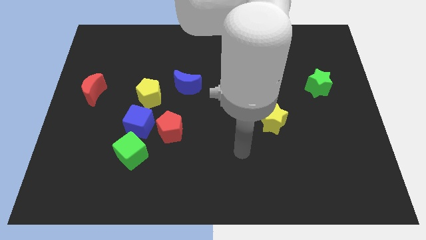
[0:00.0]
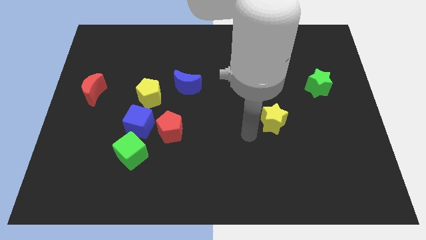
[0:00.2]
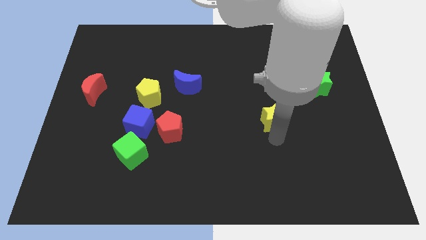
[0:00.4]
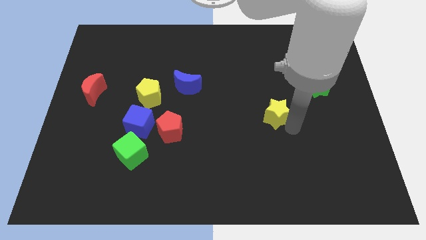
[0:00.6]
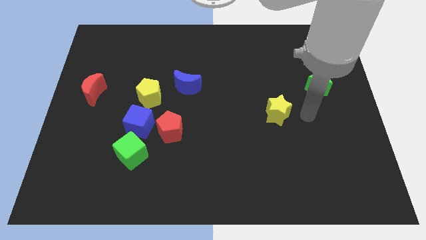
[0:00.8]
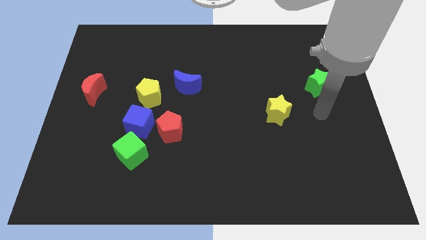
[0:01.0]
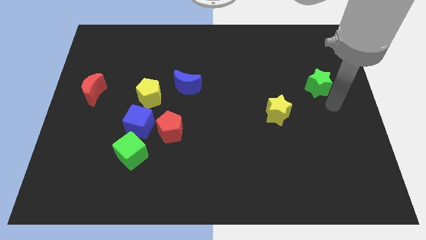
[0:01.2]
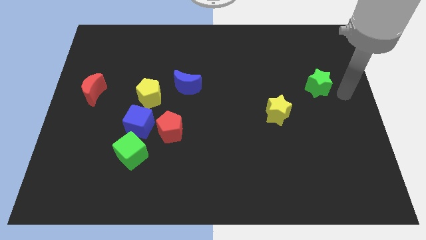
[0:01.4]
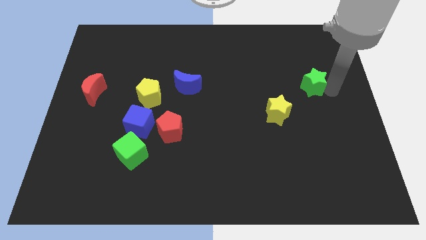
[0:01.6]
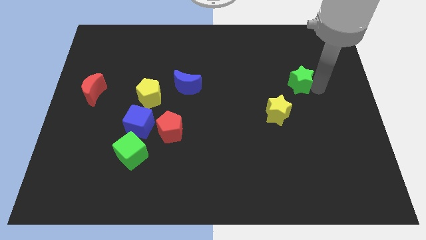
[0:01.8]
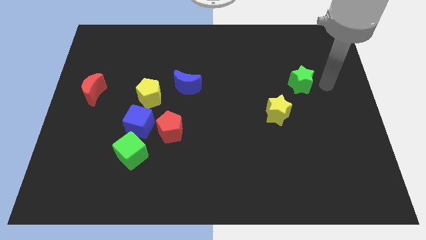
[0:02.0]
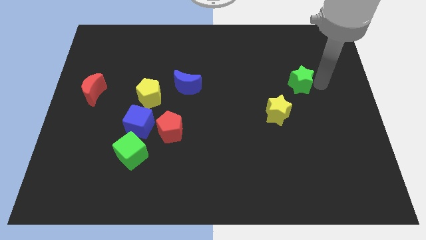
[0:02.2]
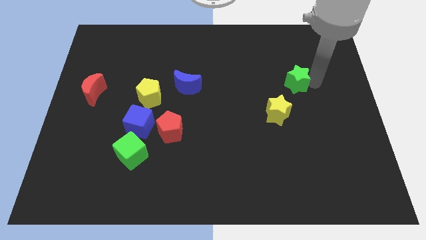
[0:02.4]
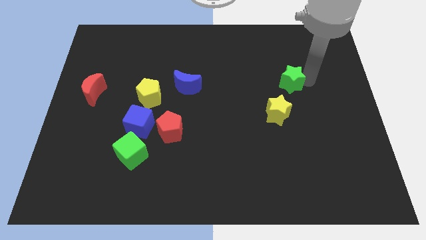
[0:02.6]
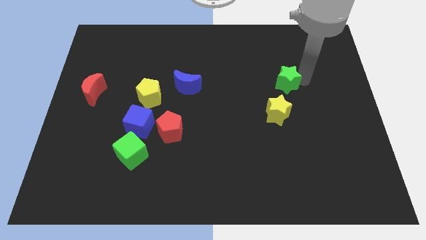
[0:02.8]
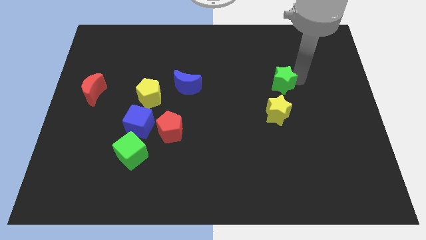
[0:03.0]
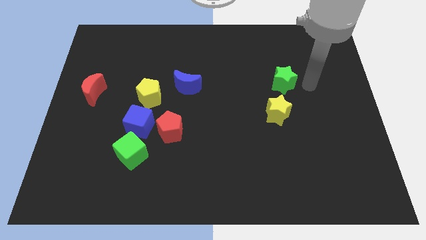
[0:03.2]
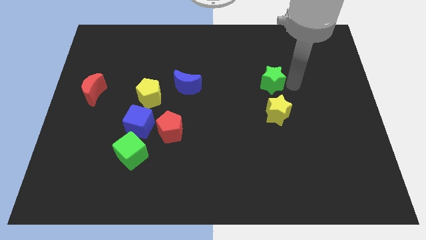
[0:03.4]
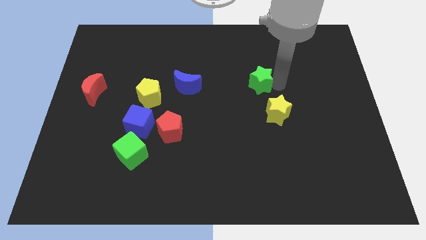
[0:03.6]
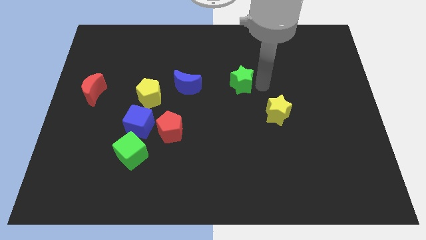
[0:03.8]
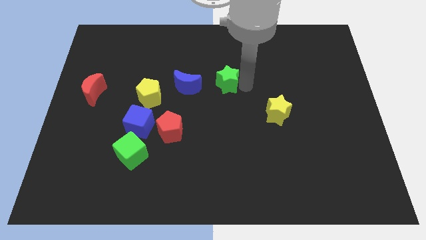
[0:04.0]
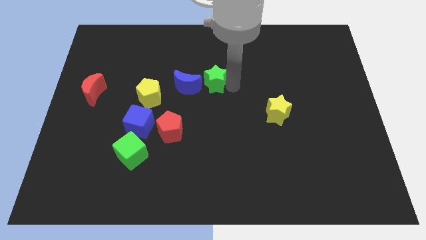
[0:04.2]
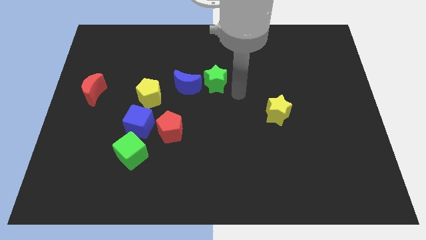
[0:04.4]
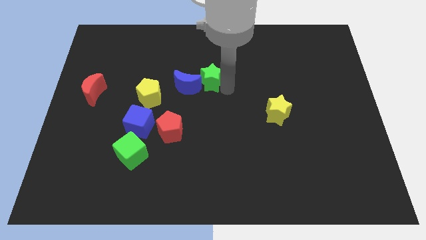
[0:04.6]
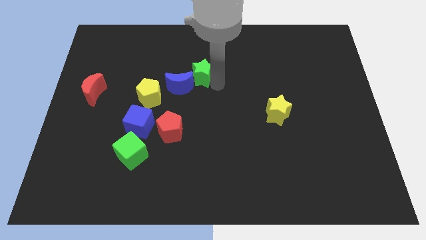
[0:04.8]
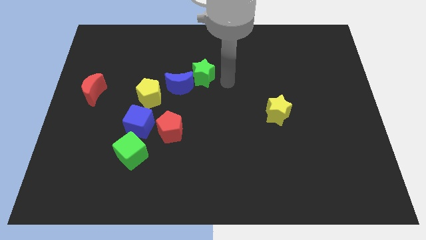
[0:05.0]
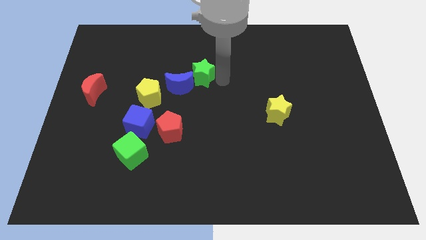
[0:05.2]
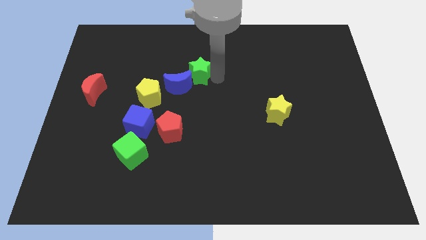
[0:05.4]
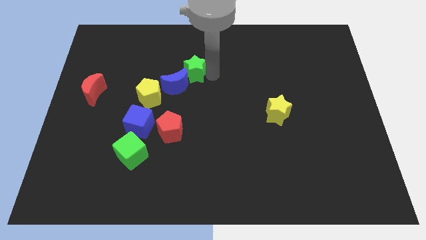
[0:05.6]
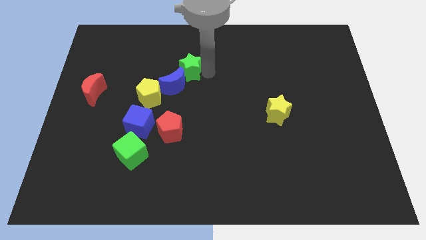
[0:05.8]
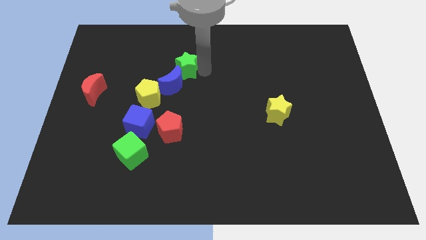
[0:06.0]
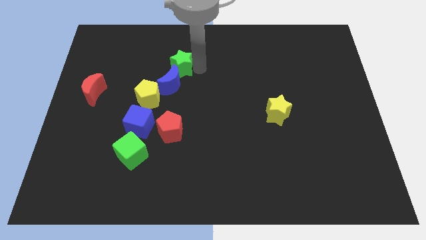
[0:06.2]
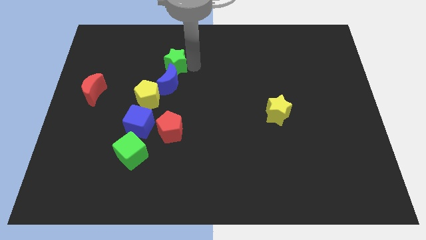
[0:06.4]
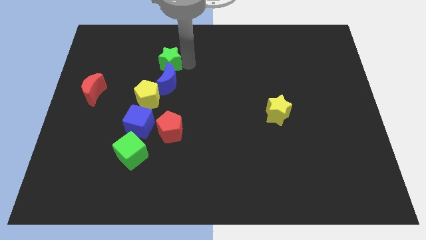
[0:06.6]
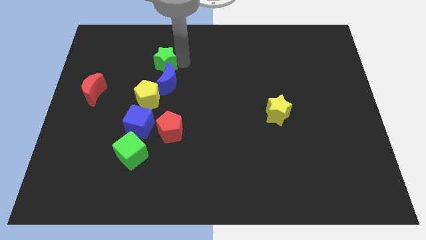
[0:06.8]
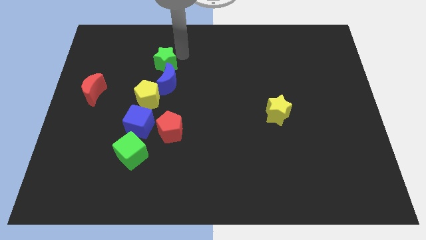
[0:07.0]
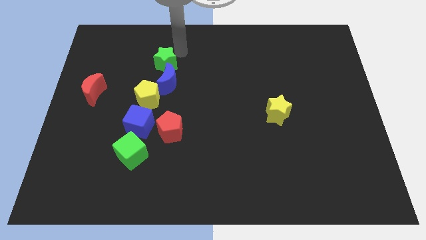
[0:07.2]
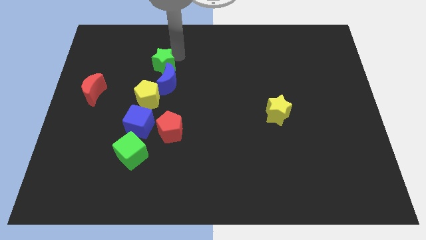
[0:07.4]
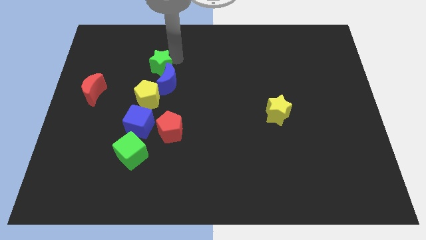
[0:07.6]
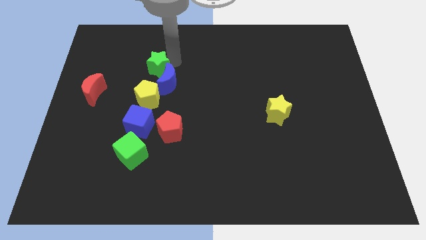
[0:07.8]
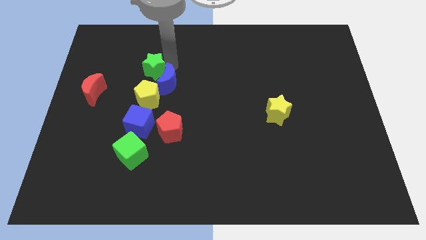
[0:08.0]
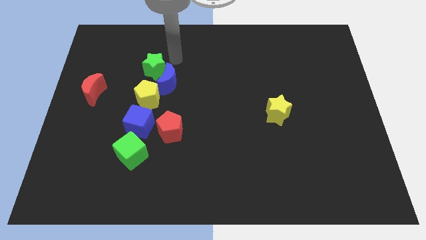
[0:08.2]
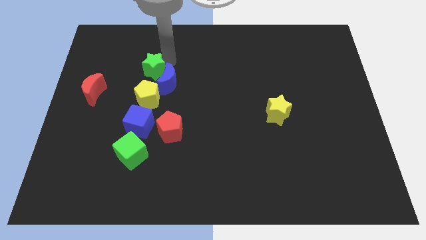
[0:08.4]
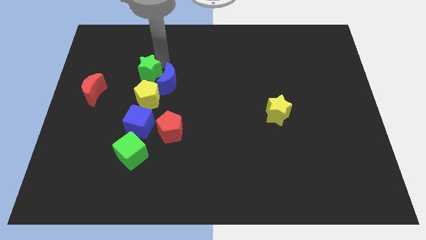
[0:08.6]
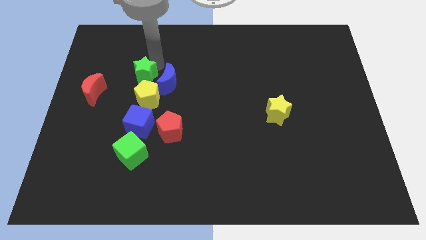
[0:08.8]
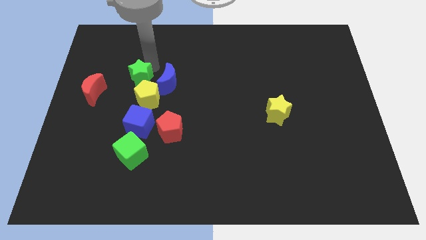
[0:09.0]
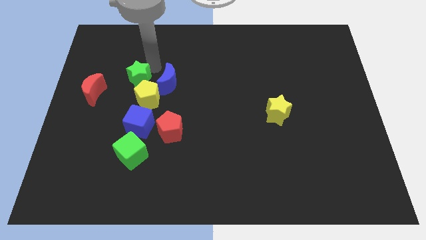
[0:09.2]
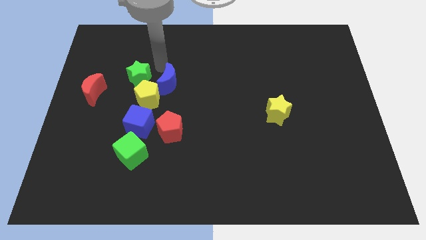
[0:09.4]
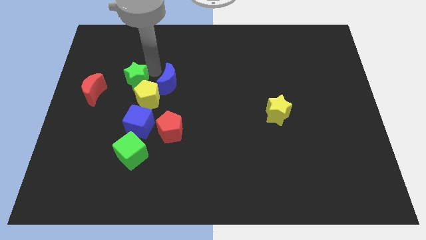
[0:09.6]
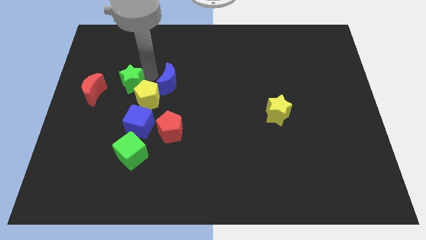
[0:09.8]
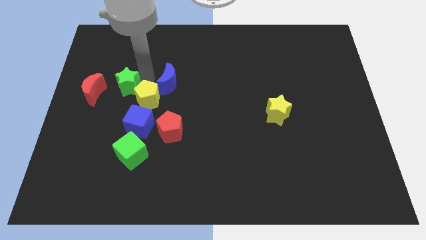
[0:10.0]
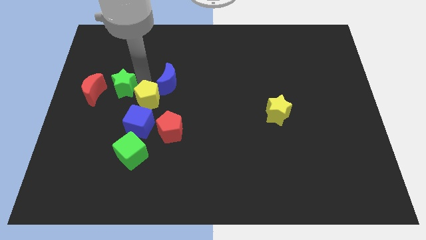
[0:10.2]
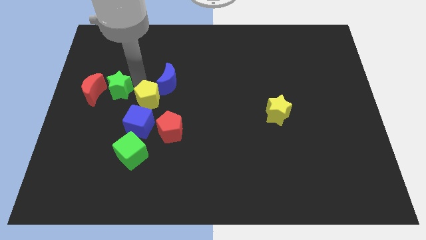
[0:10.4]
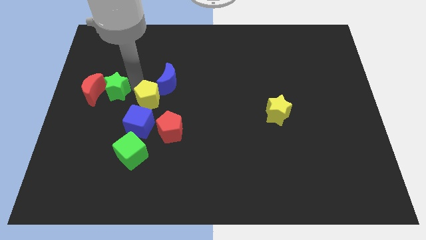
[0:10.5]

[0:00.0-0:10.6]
push the green star next to the red moon

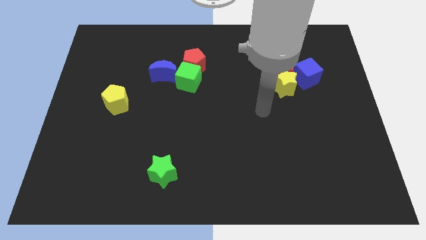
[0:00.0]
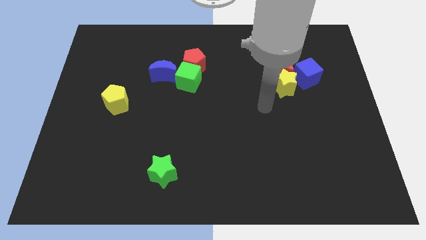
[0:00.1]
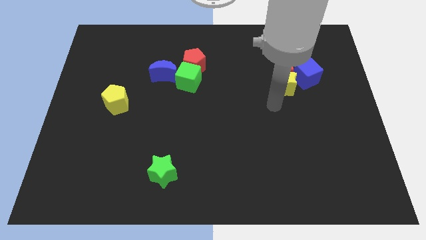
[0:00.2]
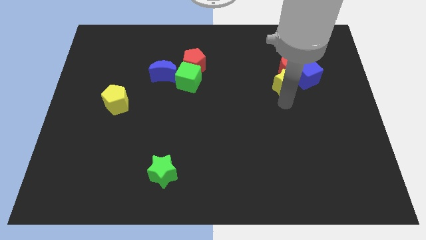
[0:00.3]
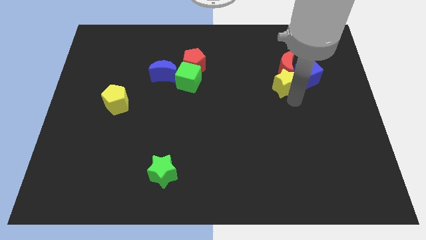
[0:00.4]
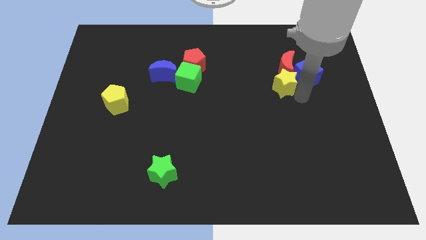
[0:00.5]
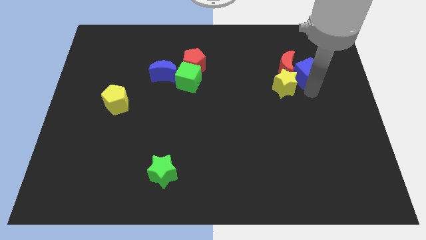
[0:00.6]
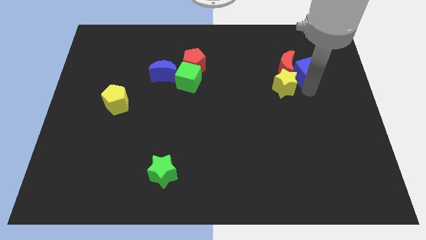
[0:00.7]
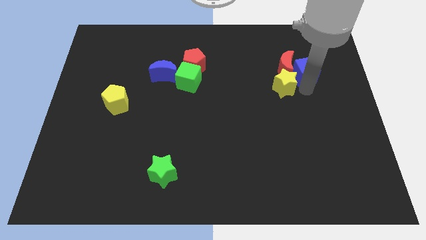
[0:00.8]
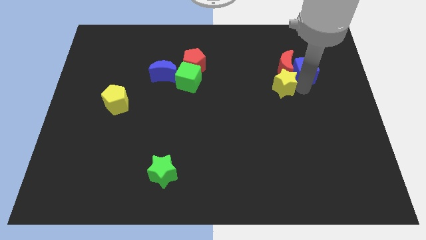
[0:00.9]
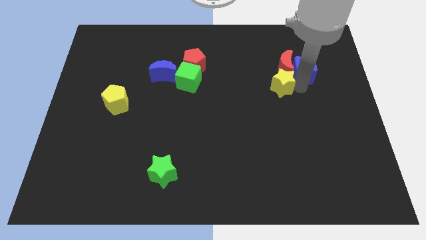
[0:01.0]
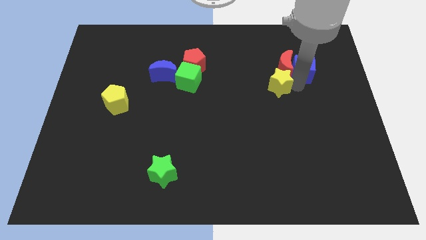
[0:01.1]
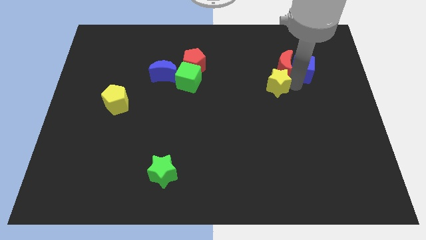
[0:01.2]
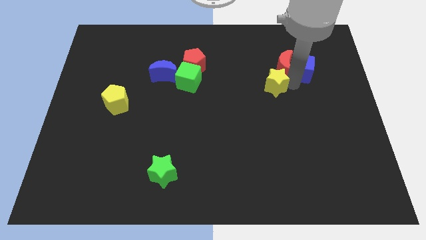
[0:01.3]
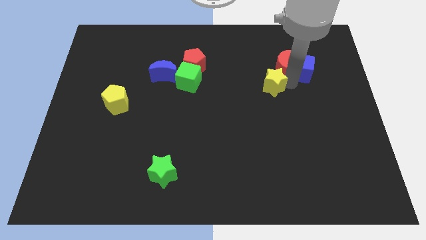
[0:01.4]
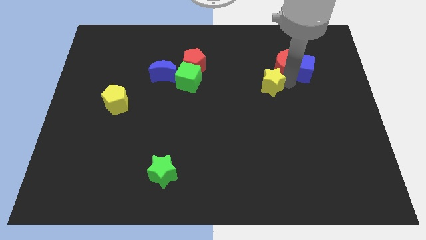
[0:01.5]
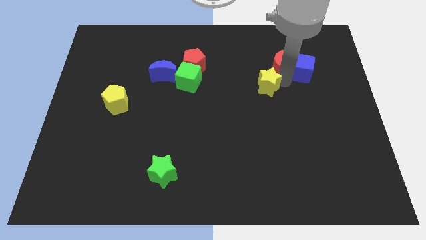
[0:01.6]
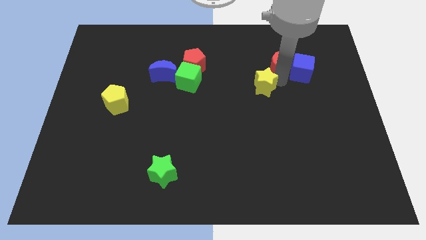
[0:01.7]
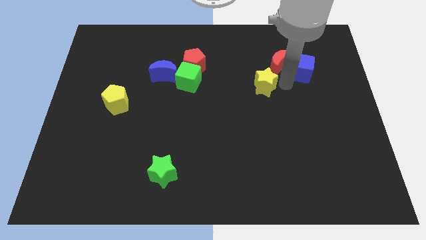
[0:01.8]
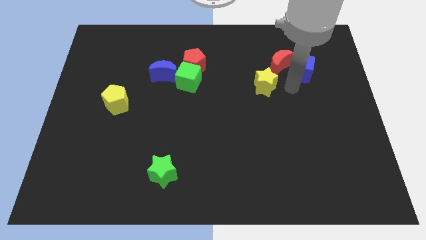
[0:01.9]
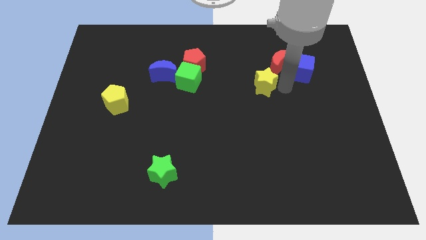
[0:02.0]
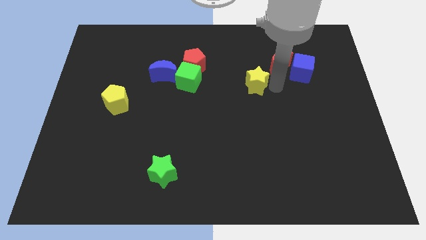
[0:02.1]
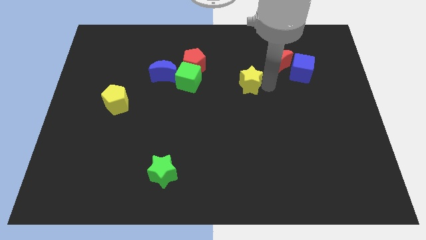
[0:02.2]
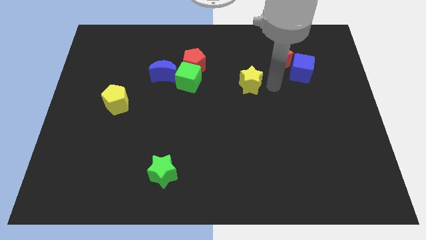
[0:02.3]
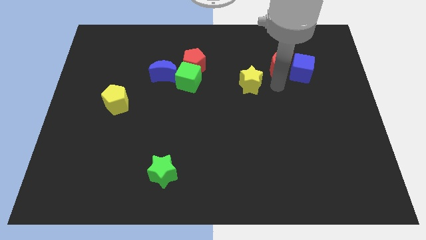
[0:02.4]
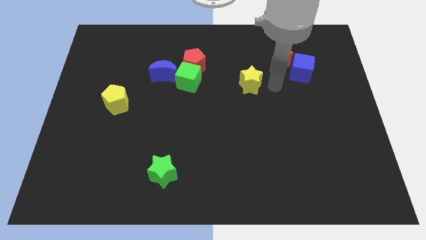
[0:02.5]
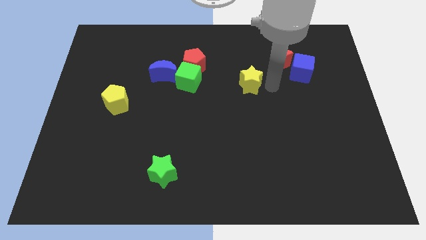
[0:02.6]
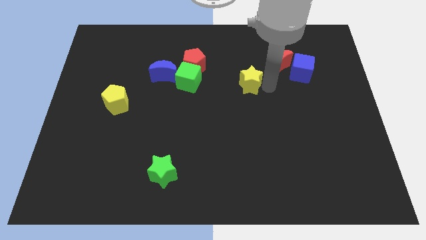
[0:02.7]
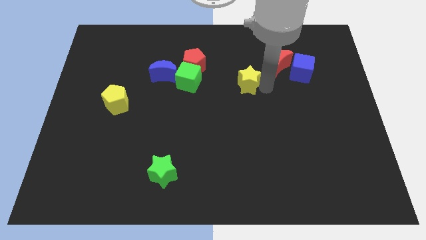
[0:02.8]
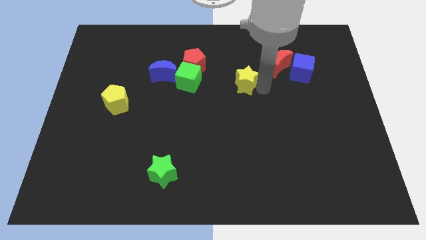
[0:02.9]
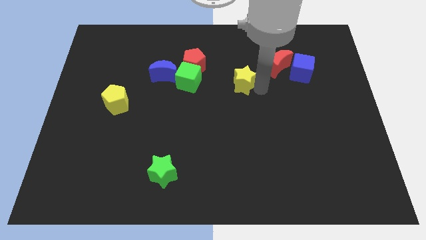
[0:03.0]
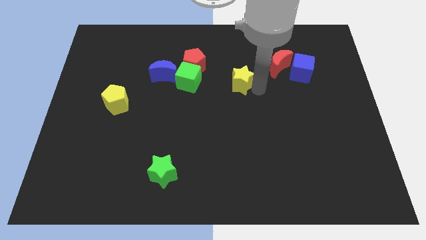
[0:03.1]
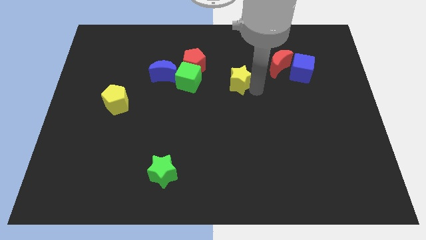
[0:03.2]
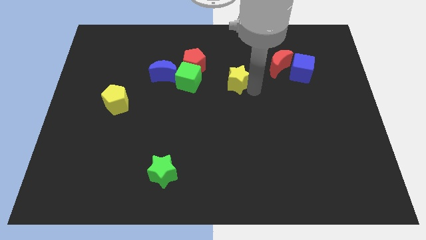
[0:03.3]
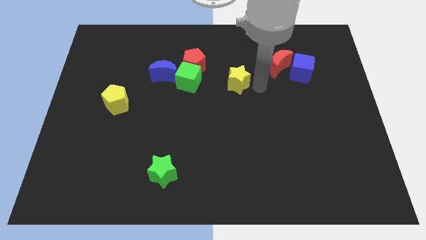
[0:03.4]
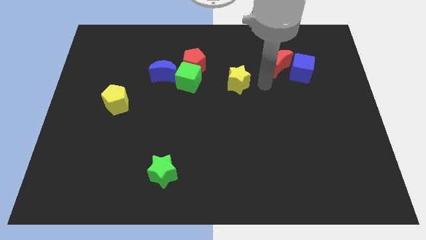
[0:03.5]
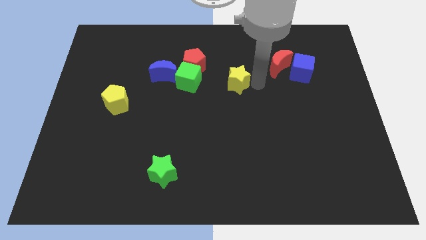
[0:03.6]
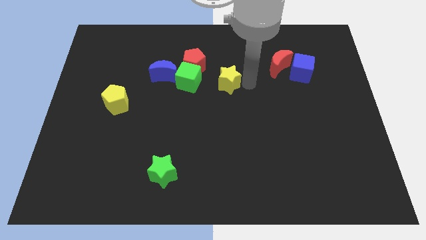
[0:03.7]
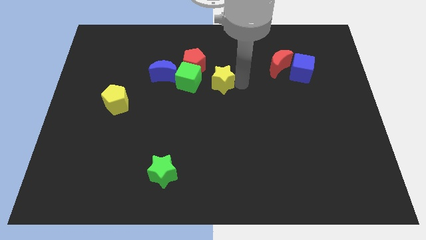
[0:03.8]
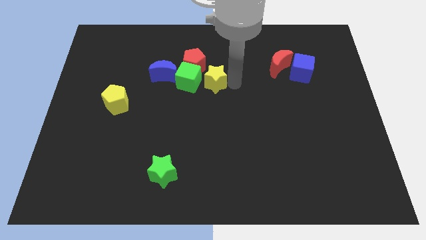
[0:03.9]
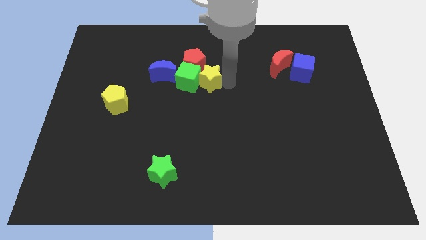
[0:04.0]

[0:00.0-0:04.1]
move the yellow star next to the green cube
